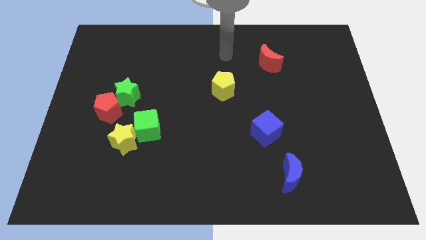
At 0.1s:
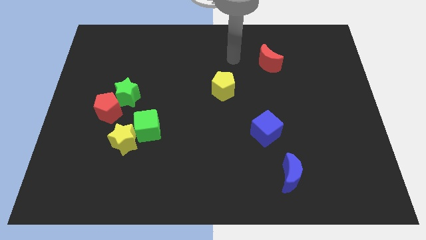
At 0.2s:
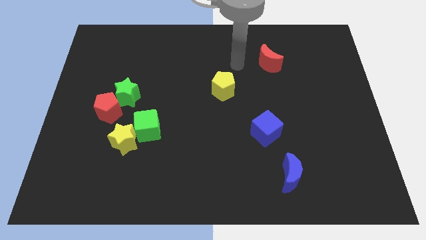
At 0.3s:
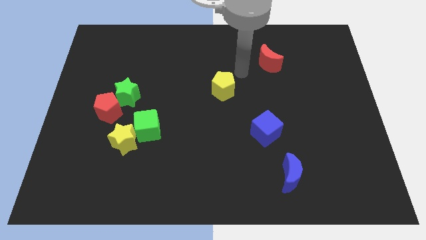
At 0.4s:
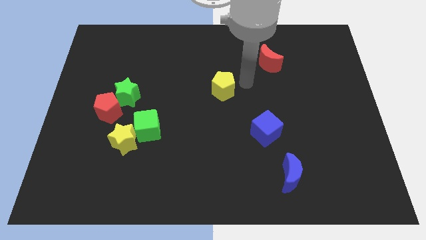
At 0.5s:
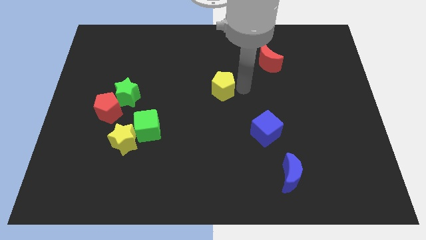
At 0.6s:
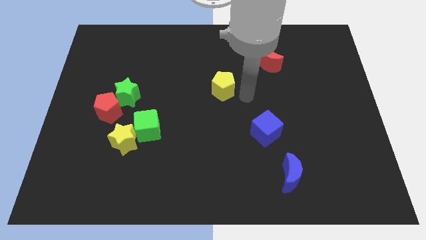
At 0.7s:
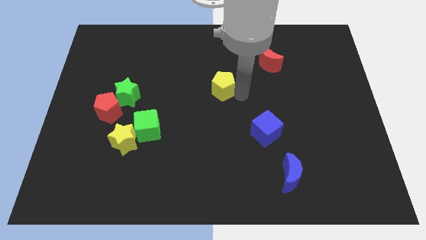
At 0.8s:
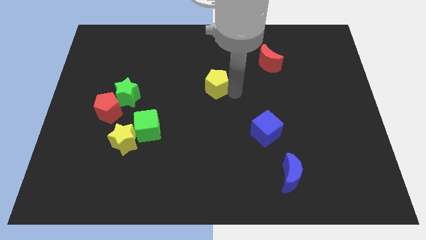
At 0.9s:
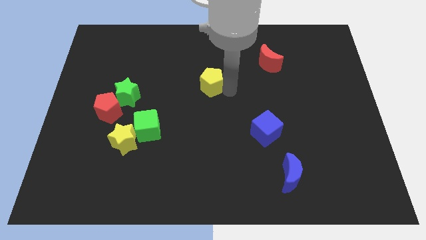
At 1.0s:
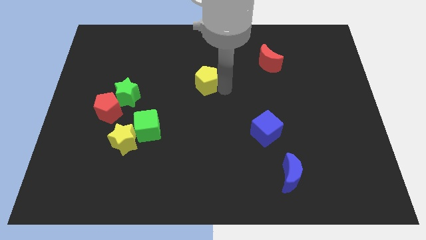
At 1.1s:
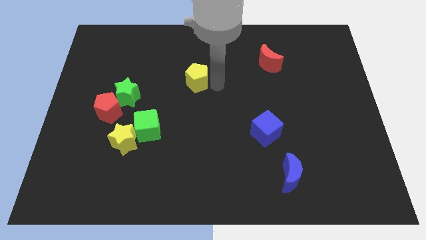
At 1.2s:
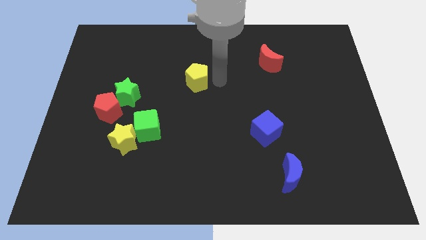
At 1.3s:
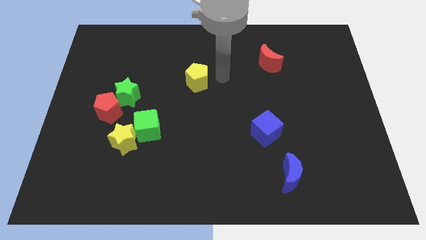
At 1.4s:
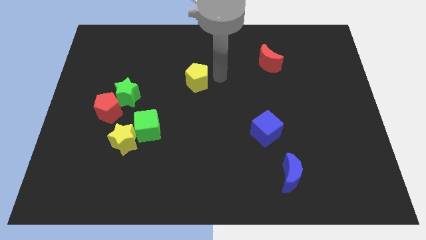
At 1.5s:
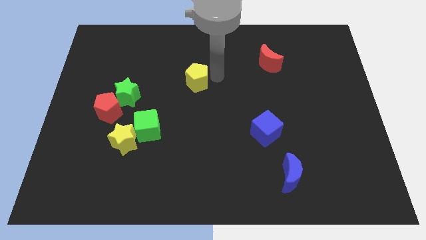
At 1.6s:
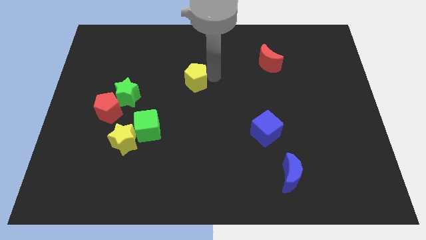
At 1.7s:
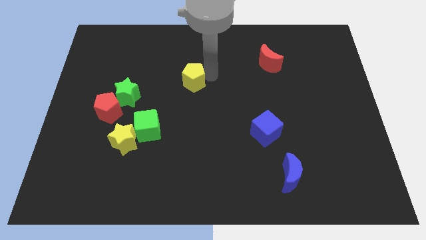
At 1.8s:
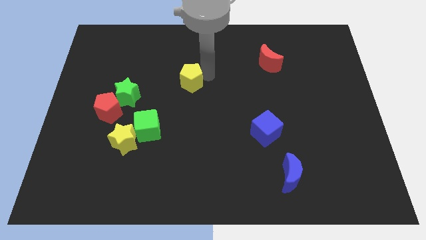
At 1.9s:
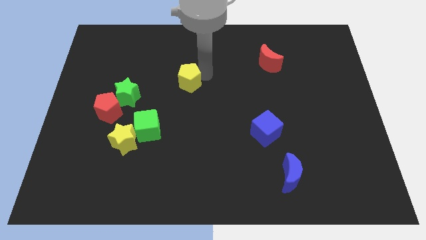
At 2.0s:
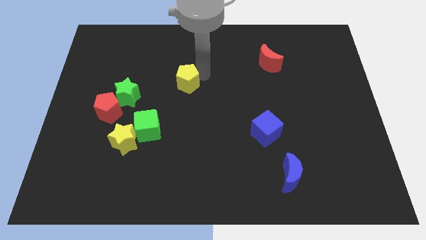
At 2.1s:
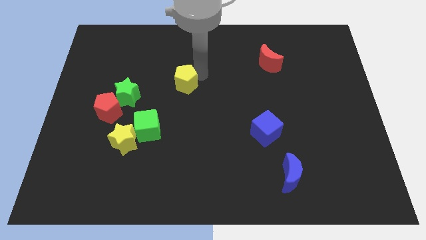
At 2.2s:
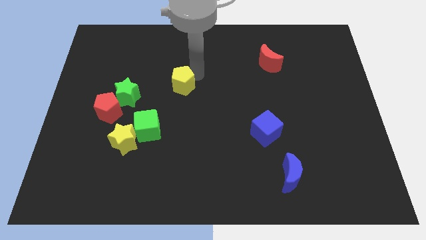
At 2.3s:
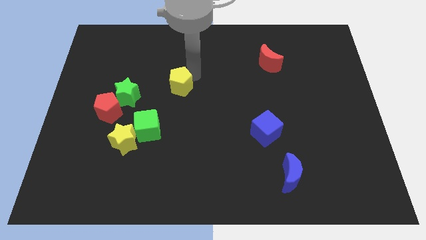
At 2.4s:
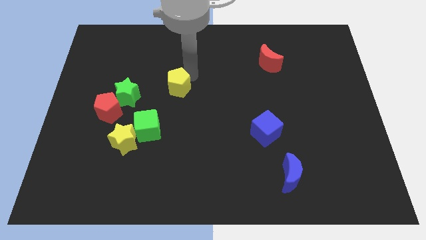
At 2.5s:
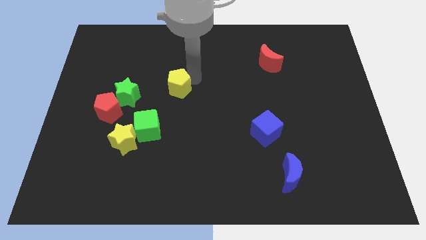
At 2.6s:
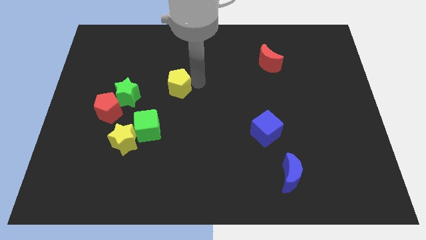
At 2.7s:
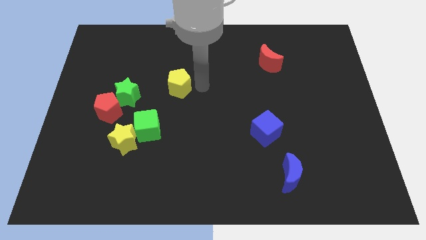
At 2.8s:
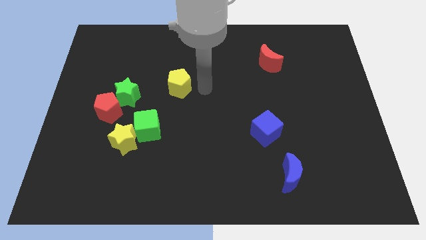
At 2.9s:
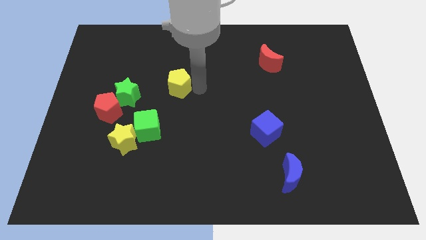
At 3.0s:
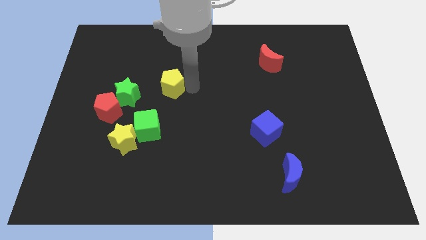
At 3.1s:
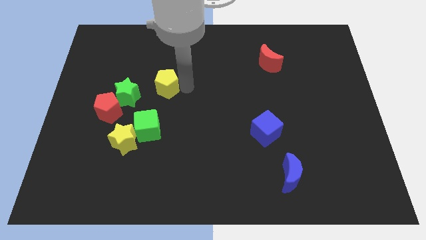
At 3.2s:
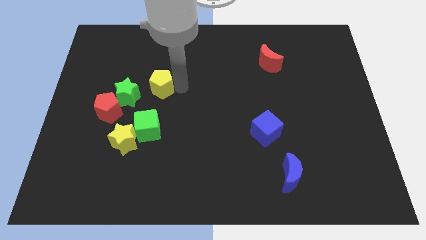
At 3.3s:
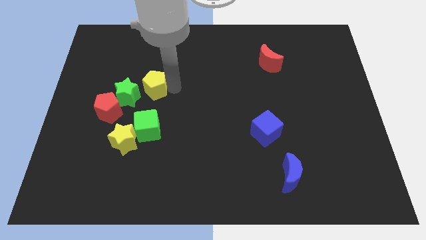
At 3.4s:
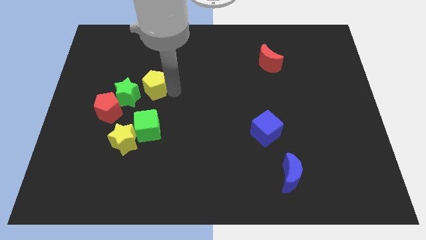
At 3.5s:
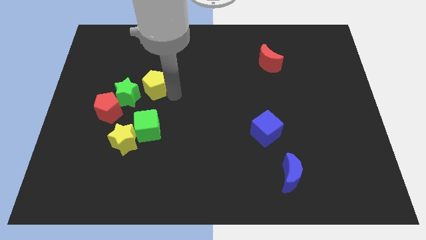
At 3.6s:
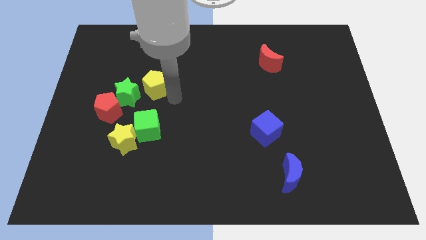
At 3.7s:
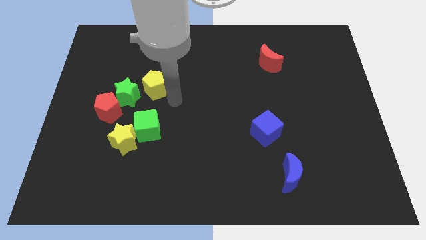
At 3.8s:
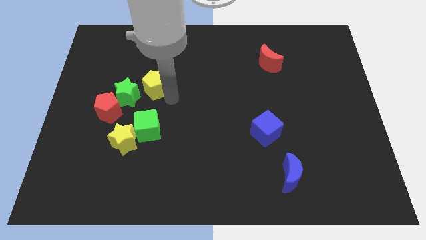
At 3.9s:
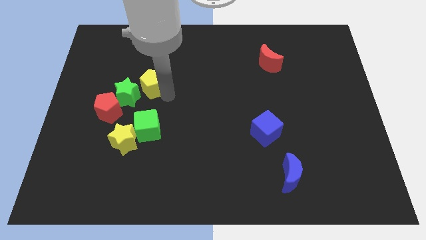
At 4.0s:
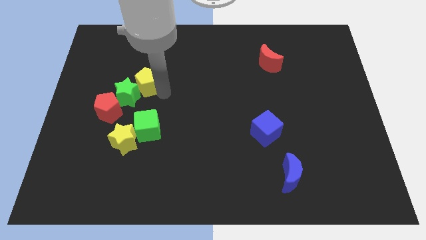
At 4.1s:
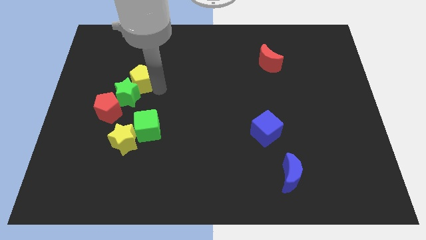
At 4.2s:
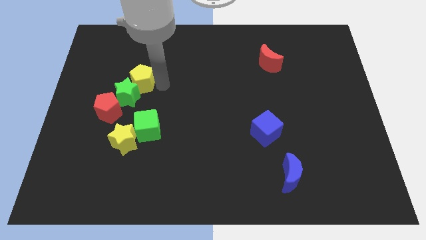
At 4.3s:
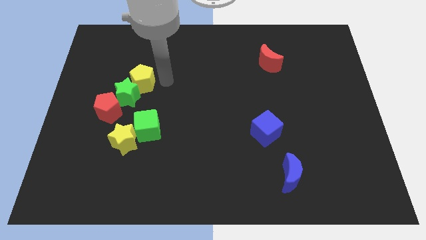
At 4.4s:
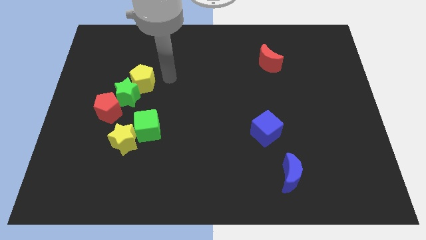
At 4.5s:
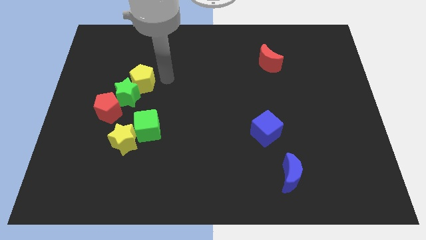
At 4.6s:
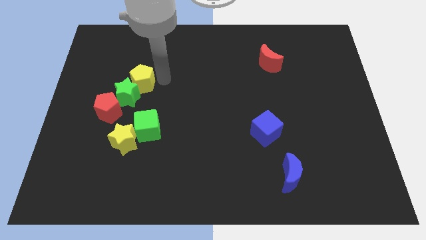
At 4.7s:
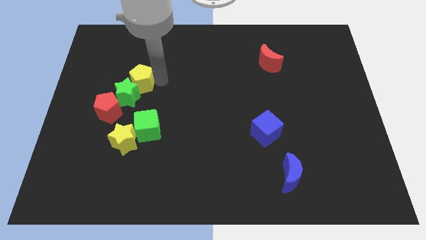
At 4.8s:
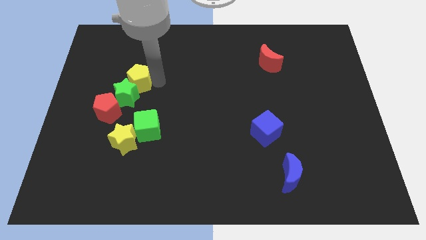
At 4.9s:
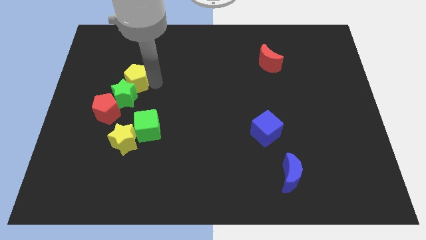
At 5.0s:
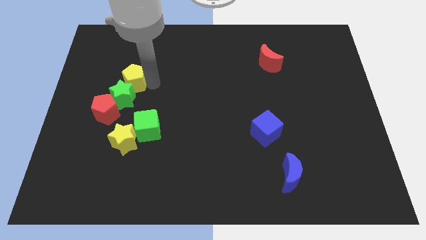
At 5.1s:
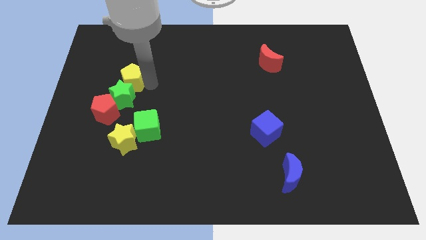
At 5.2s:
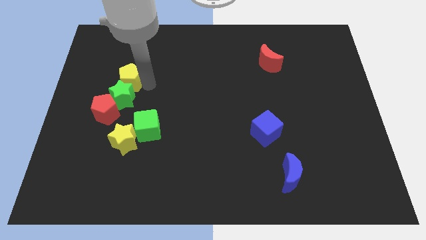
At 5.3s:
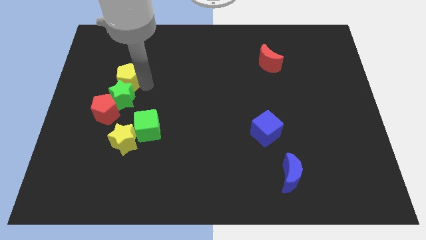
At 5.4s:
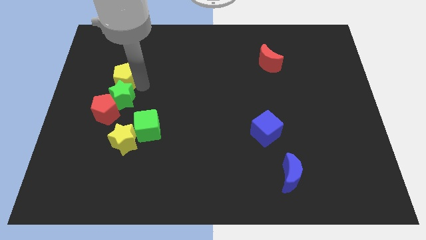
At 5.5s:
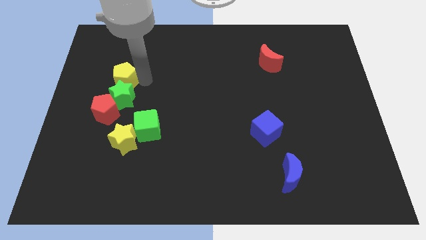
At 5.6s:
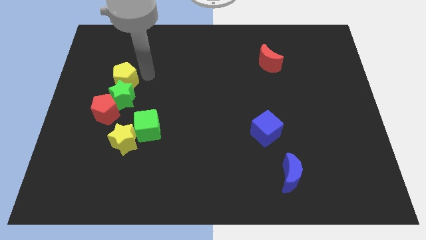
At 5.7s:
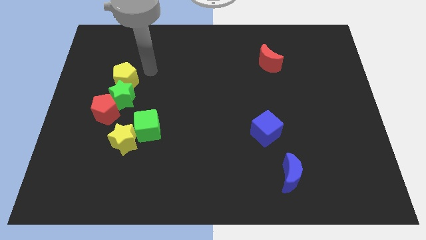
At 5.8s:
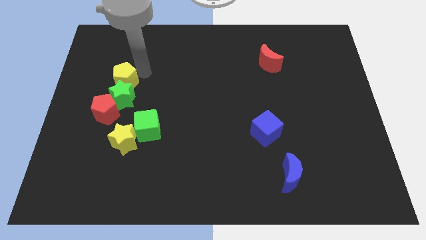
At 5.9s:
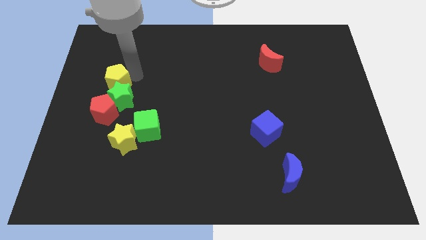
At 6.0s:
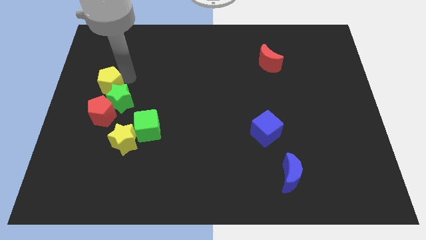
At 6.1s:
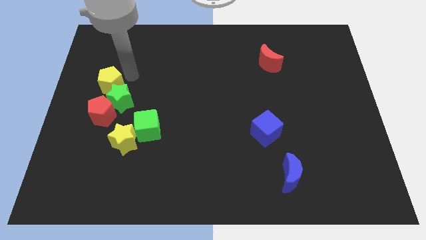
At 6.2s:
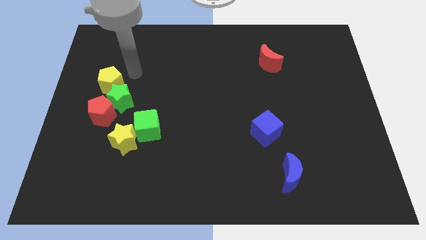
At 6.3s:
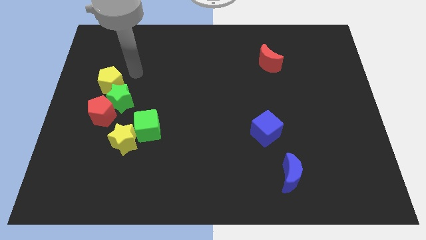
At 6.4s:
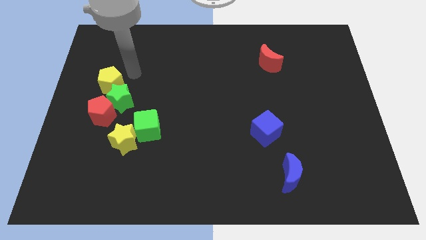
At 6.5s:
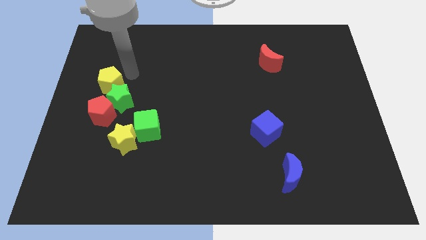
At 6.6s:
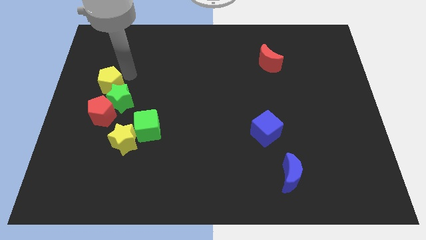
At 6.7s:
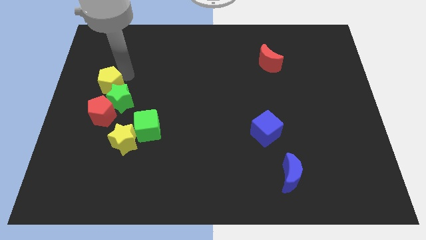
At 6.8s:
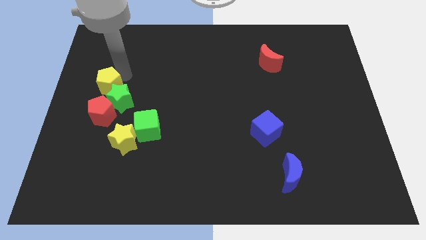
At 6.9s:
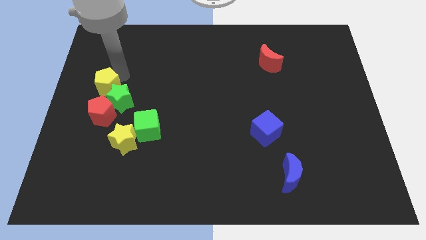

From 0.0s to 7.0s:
move the yellow pentagon to the left side
